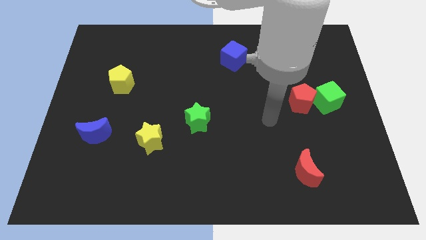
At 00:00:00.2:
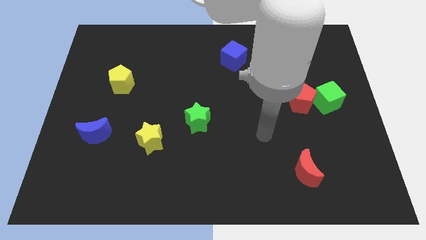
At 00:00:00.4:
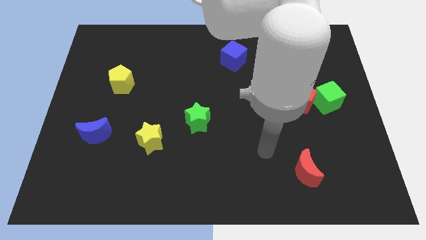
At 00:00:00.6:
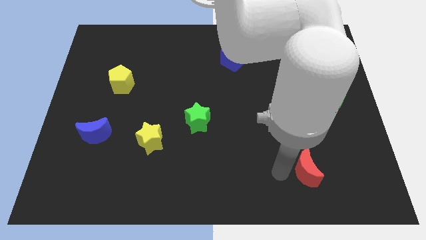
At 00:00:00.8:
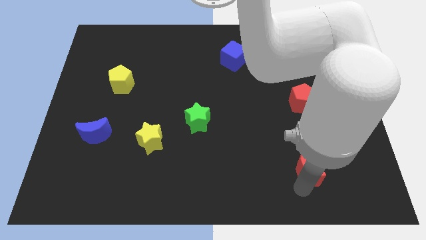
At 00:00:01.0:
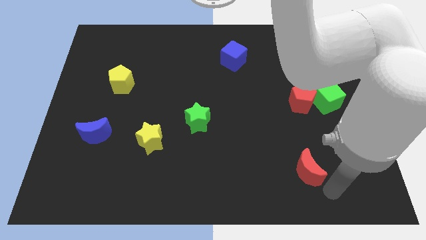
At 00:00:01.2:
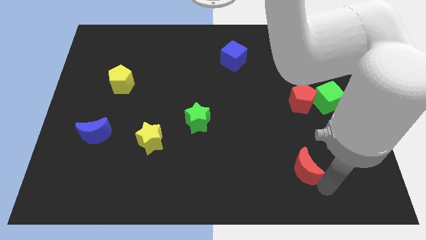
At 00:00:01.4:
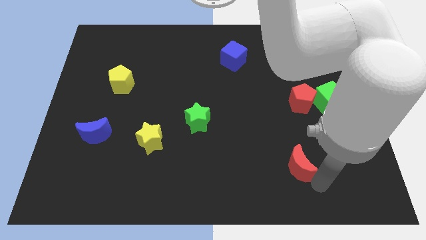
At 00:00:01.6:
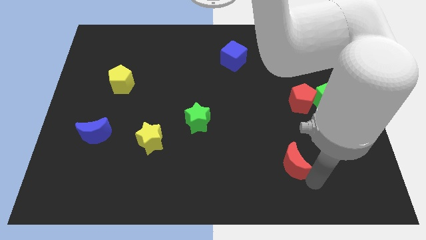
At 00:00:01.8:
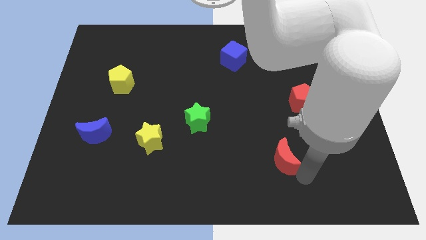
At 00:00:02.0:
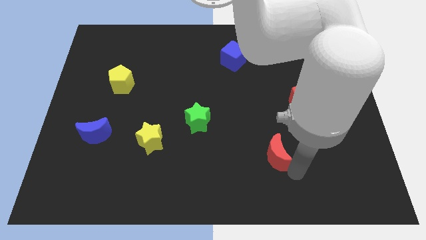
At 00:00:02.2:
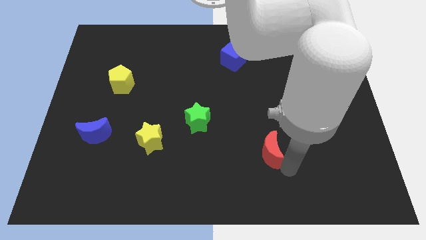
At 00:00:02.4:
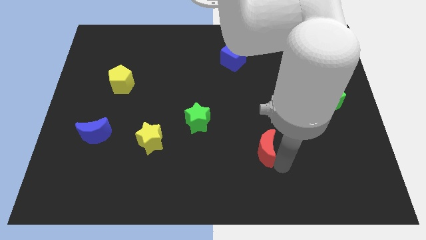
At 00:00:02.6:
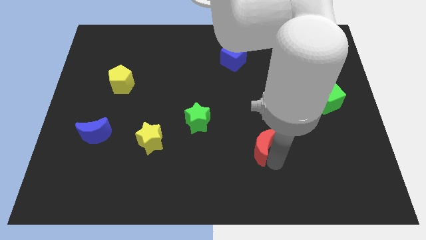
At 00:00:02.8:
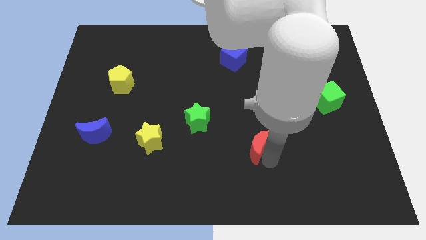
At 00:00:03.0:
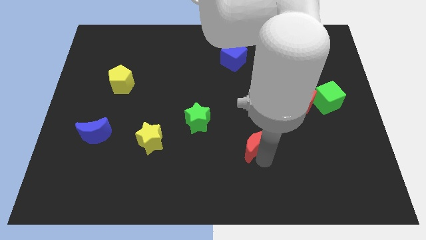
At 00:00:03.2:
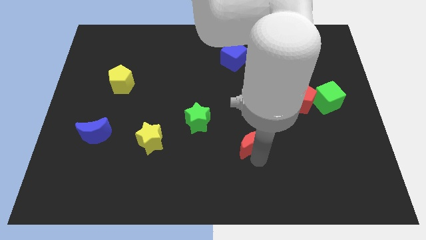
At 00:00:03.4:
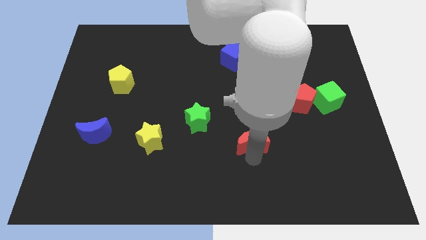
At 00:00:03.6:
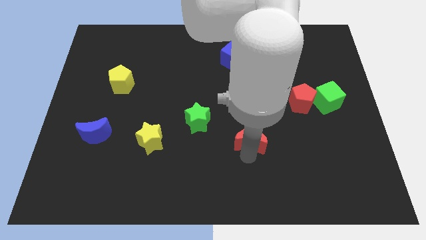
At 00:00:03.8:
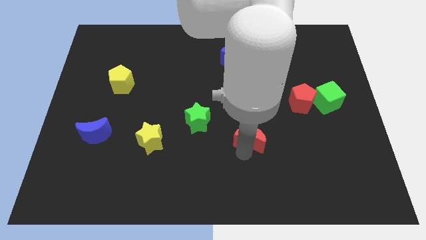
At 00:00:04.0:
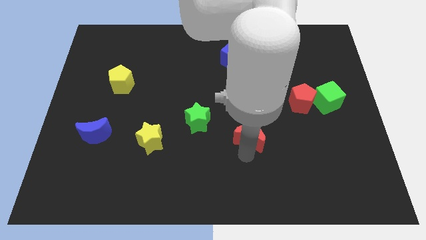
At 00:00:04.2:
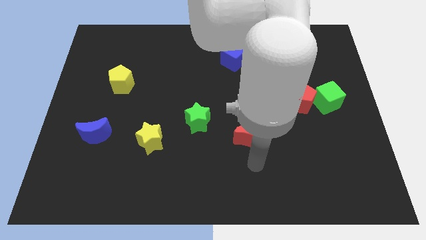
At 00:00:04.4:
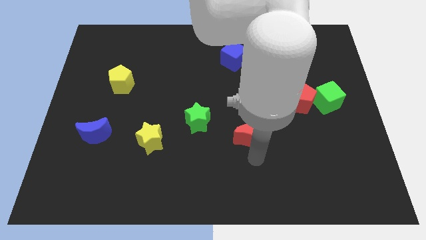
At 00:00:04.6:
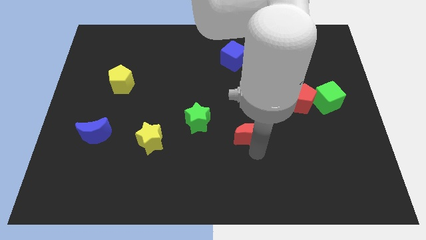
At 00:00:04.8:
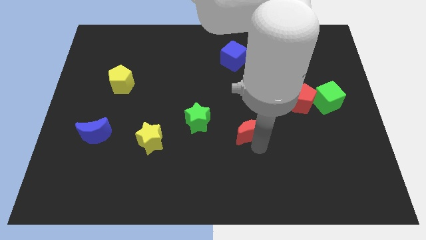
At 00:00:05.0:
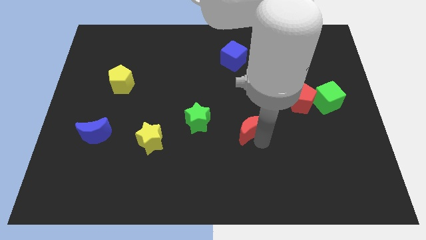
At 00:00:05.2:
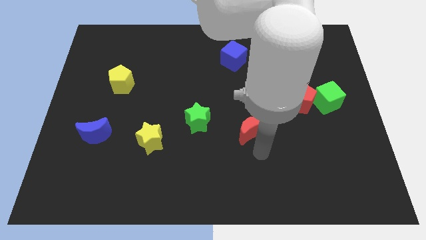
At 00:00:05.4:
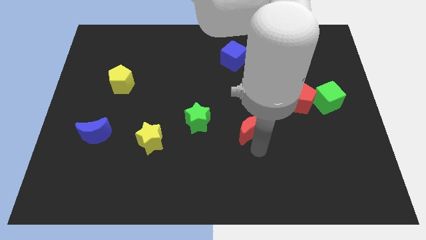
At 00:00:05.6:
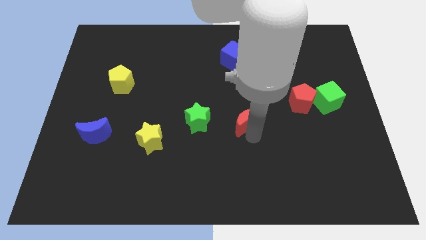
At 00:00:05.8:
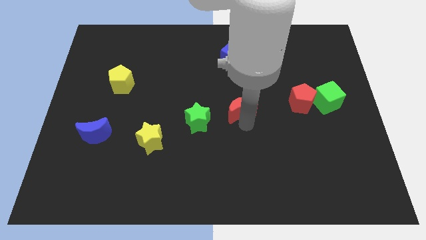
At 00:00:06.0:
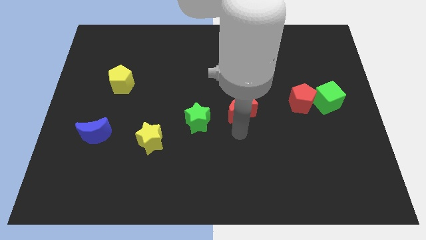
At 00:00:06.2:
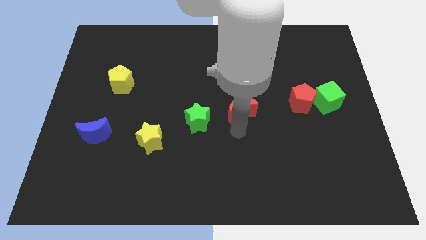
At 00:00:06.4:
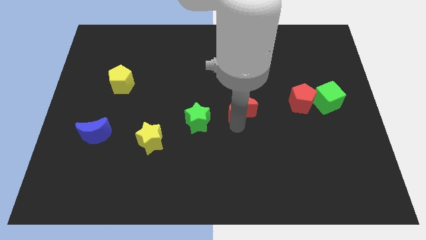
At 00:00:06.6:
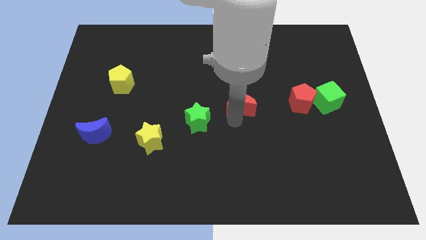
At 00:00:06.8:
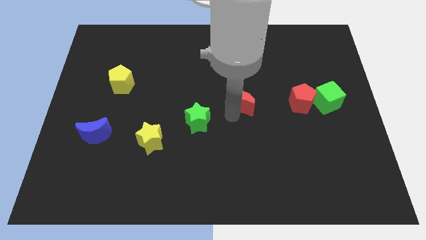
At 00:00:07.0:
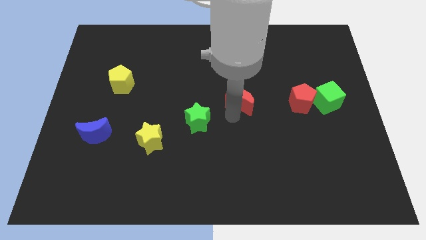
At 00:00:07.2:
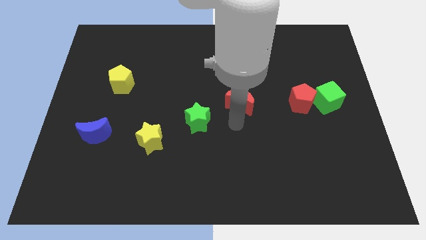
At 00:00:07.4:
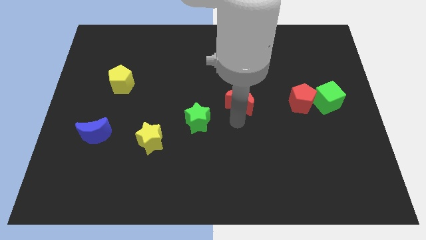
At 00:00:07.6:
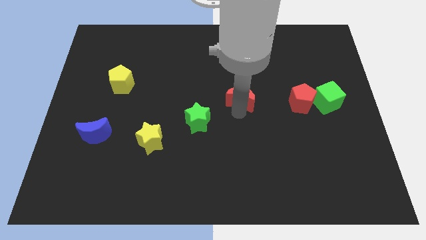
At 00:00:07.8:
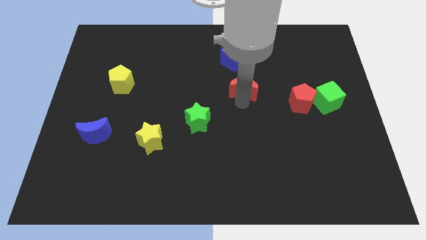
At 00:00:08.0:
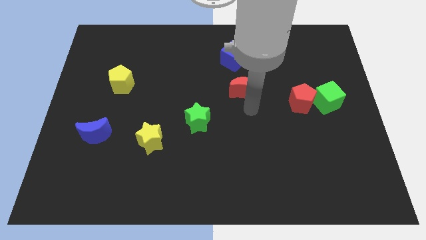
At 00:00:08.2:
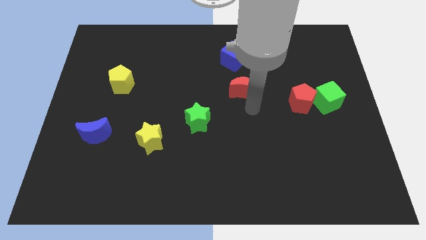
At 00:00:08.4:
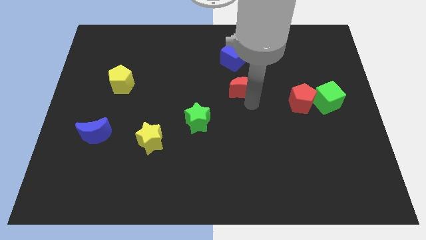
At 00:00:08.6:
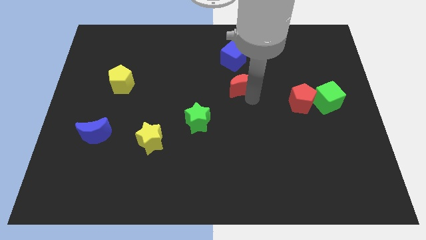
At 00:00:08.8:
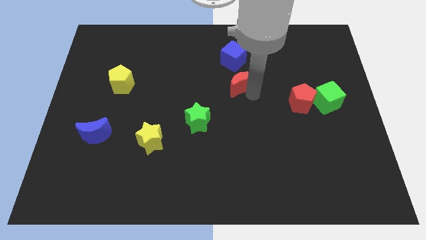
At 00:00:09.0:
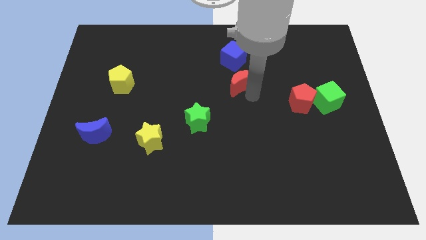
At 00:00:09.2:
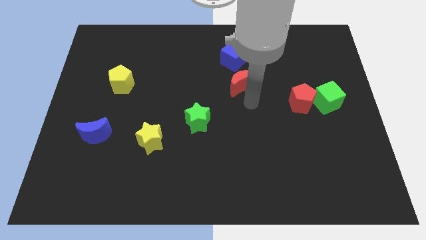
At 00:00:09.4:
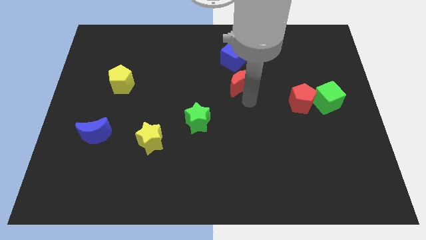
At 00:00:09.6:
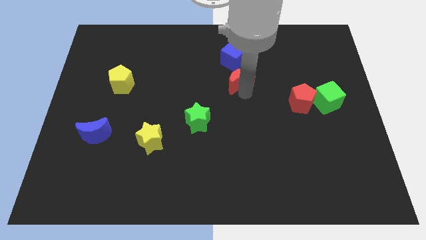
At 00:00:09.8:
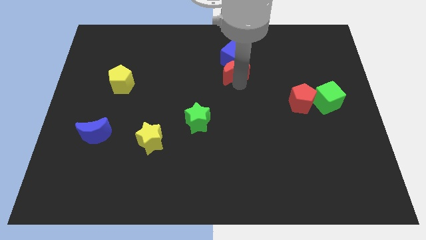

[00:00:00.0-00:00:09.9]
slide the red moon next to the blue cube

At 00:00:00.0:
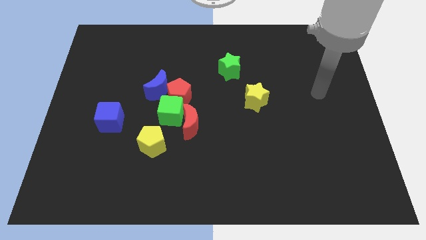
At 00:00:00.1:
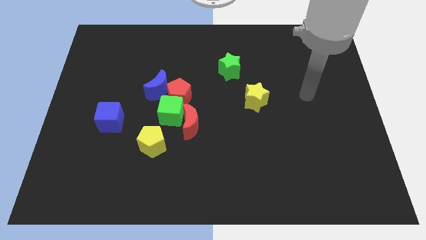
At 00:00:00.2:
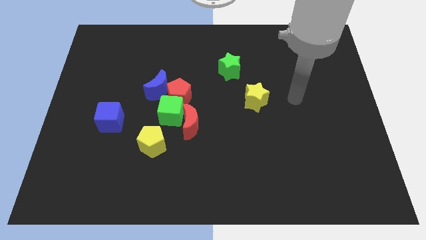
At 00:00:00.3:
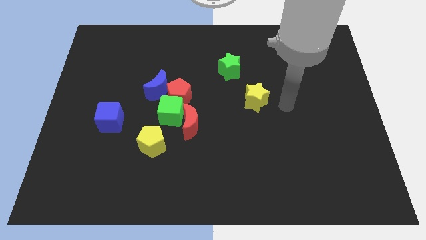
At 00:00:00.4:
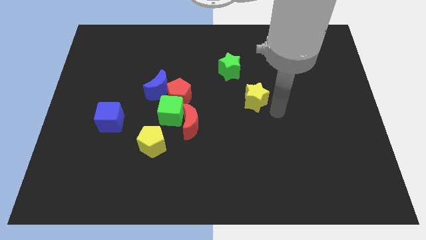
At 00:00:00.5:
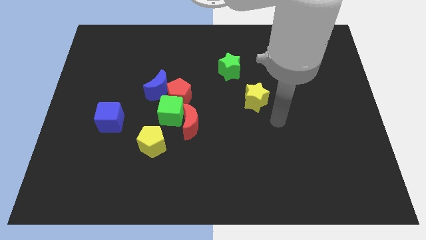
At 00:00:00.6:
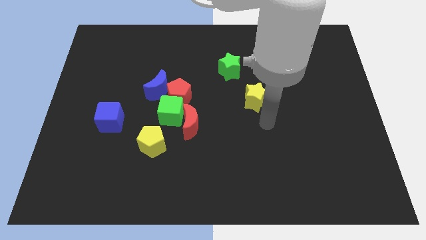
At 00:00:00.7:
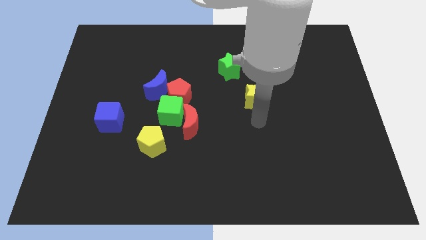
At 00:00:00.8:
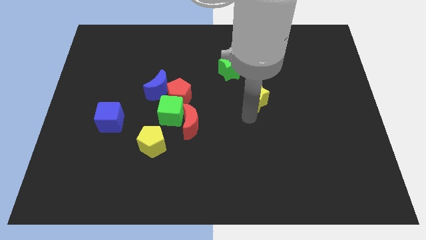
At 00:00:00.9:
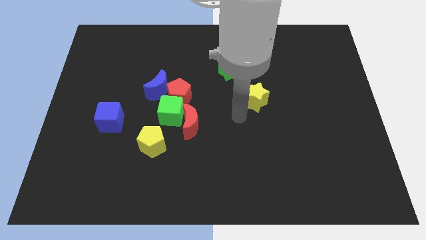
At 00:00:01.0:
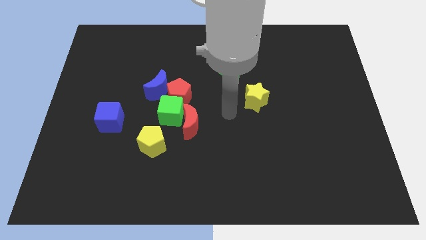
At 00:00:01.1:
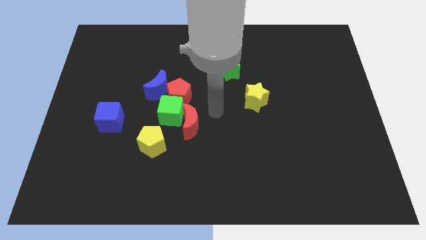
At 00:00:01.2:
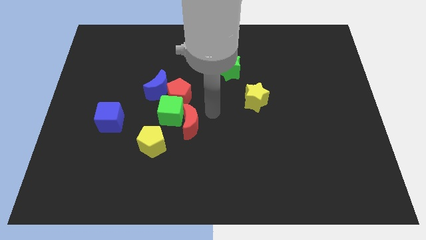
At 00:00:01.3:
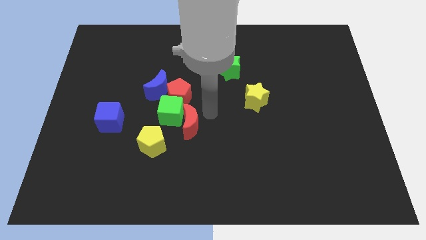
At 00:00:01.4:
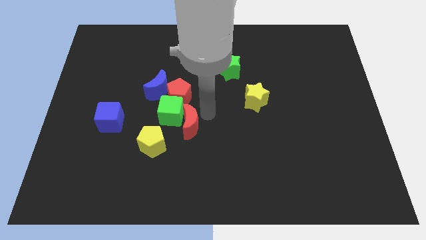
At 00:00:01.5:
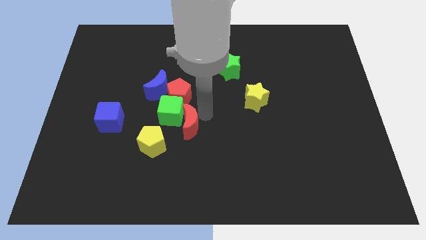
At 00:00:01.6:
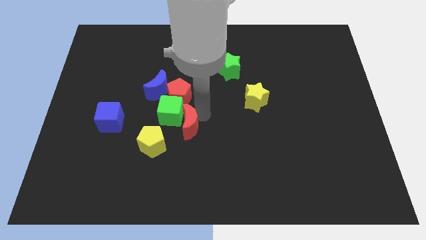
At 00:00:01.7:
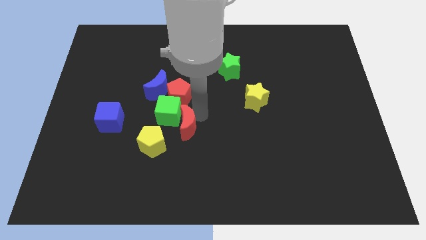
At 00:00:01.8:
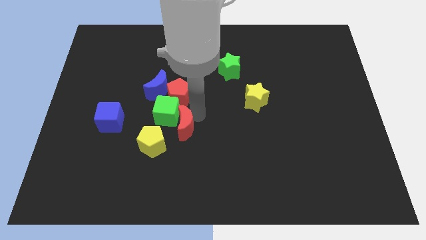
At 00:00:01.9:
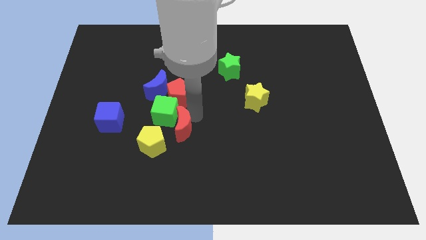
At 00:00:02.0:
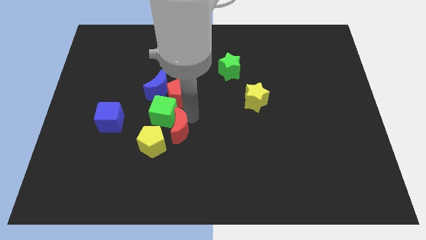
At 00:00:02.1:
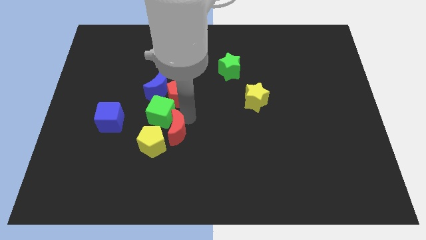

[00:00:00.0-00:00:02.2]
push the red moon next to the yellow pentagon

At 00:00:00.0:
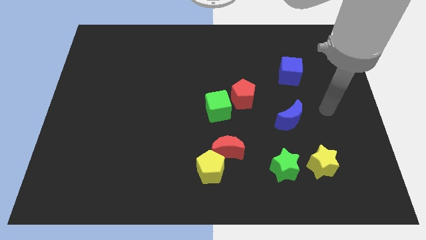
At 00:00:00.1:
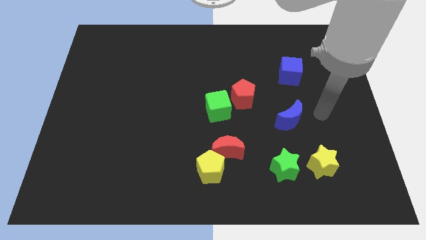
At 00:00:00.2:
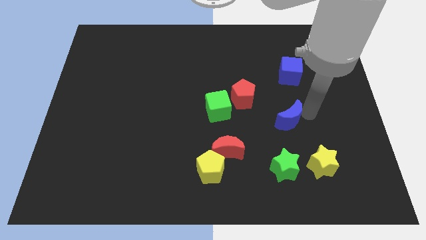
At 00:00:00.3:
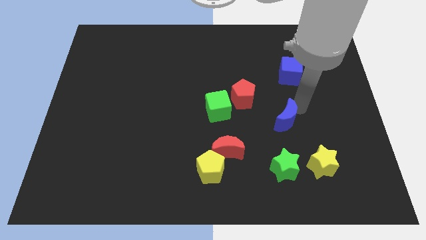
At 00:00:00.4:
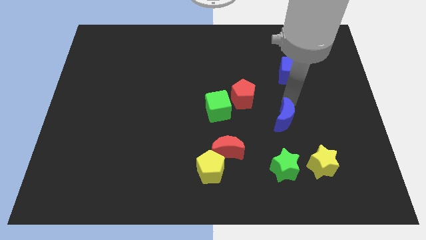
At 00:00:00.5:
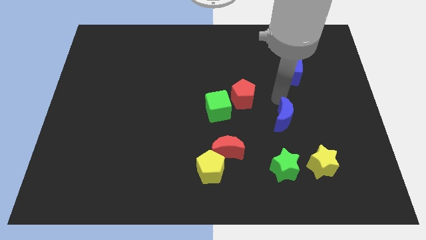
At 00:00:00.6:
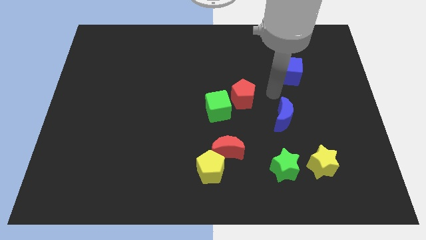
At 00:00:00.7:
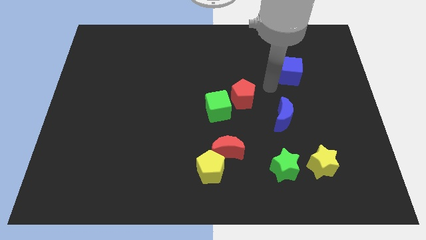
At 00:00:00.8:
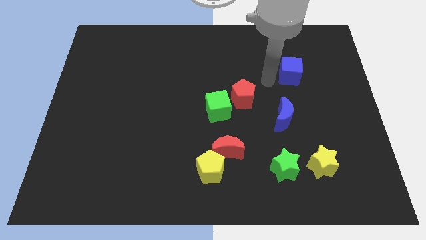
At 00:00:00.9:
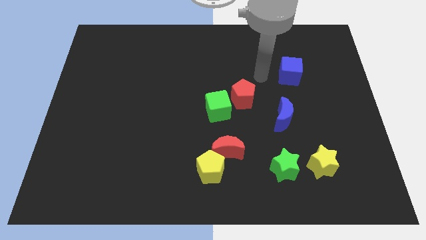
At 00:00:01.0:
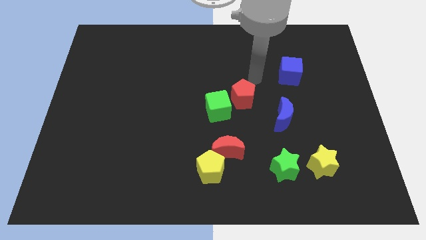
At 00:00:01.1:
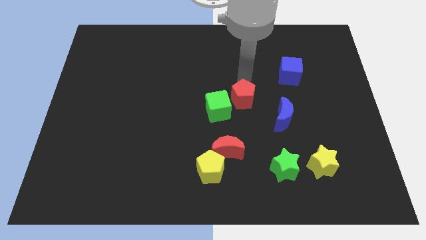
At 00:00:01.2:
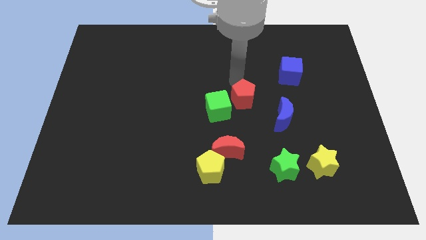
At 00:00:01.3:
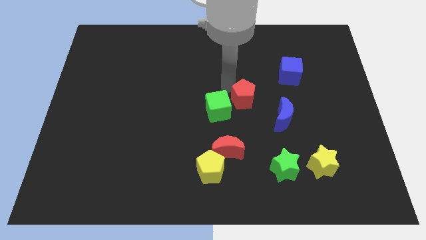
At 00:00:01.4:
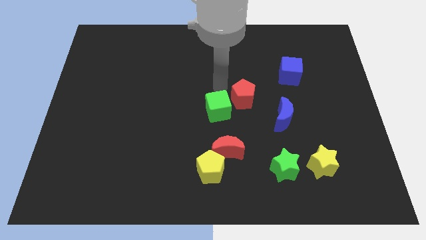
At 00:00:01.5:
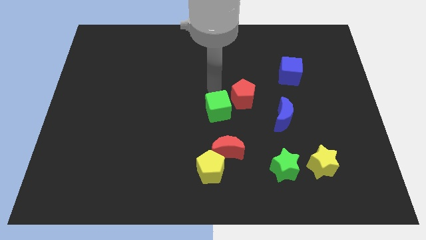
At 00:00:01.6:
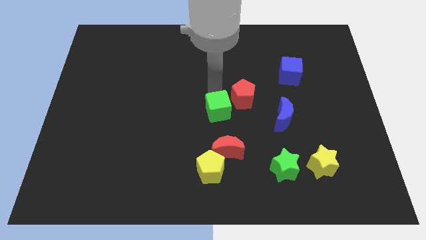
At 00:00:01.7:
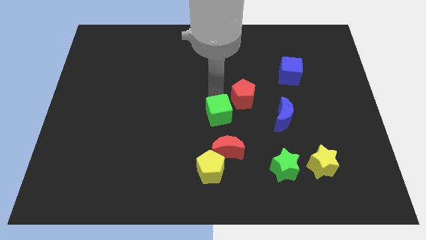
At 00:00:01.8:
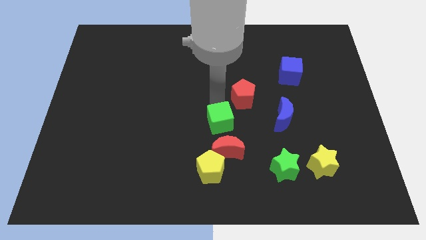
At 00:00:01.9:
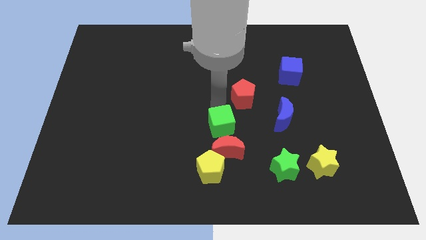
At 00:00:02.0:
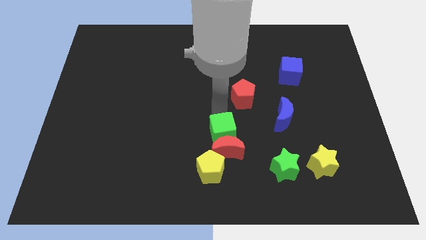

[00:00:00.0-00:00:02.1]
put the green cube next to the red moon
